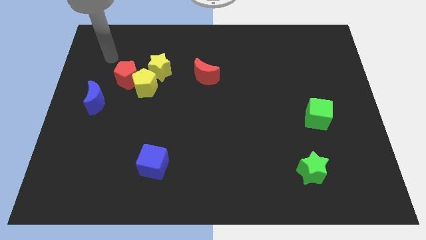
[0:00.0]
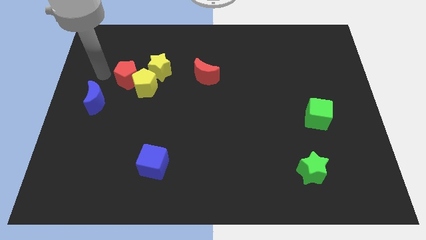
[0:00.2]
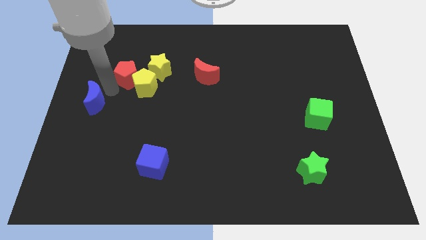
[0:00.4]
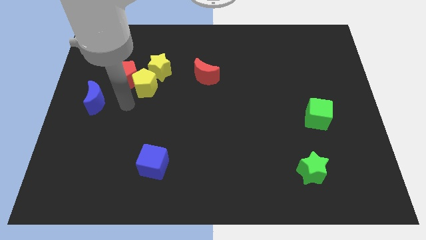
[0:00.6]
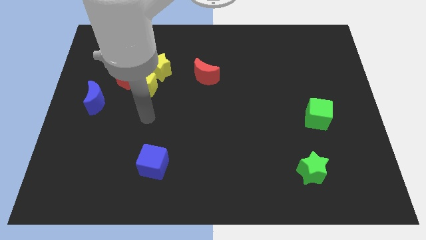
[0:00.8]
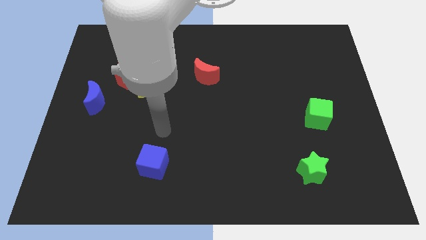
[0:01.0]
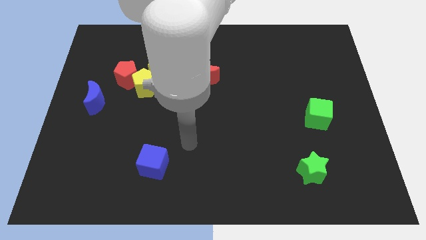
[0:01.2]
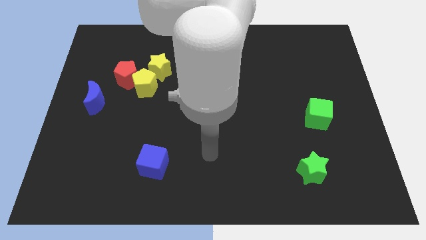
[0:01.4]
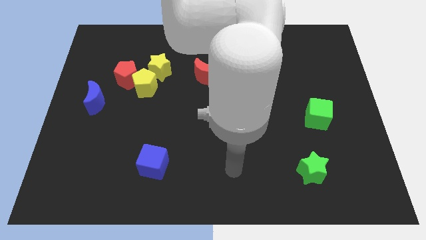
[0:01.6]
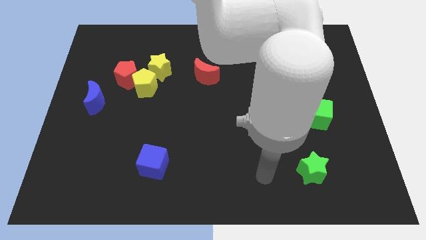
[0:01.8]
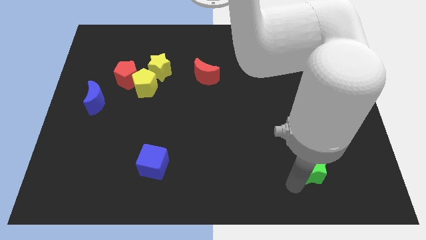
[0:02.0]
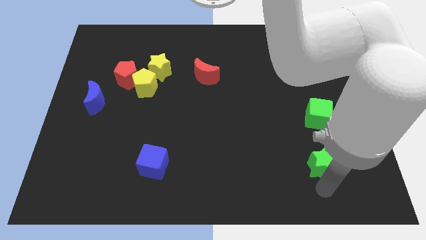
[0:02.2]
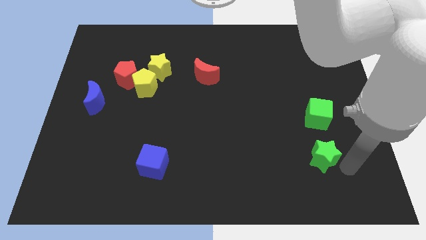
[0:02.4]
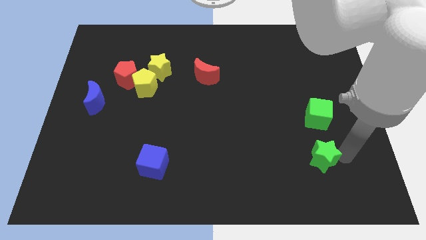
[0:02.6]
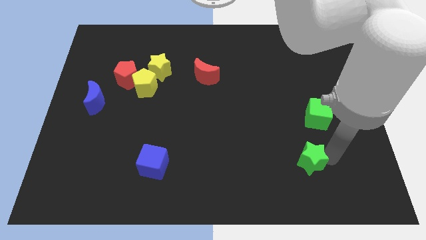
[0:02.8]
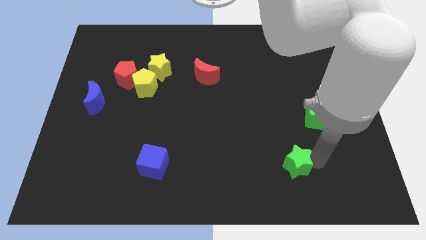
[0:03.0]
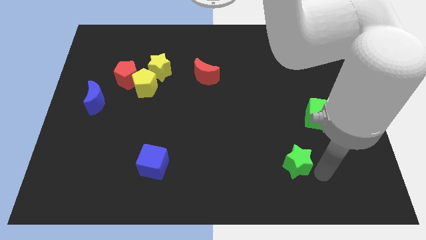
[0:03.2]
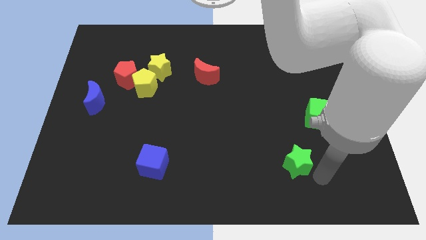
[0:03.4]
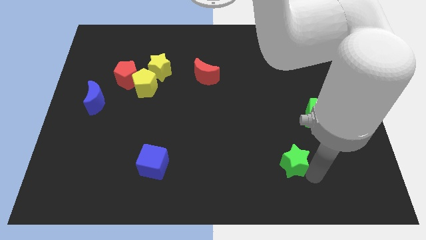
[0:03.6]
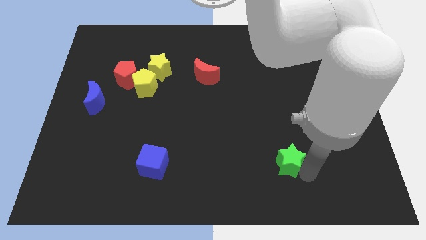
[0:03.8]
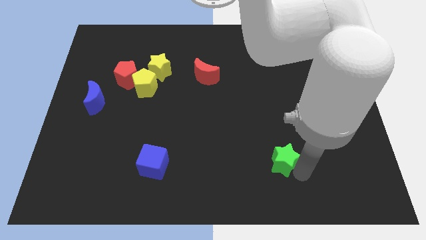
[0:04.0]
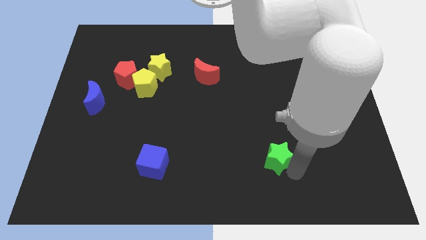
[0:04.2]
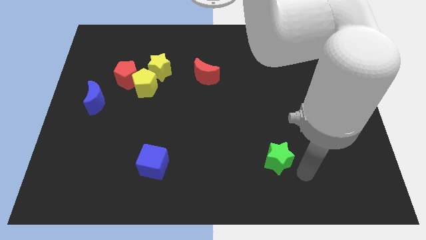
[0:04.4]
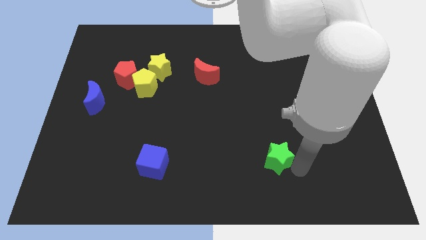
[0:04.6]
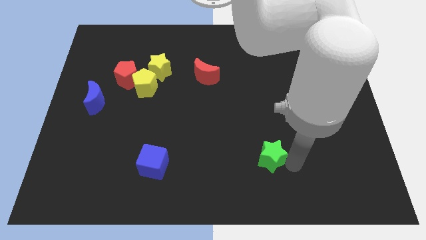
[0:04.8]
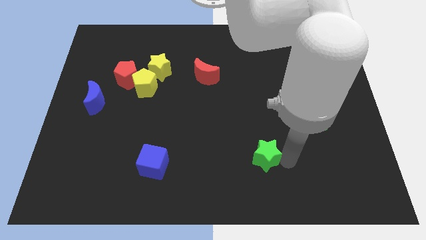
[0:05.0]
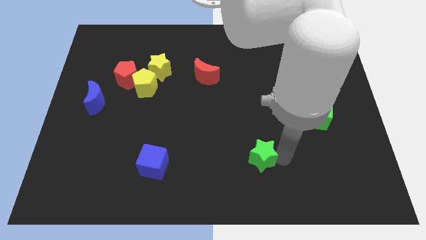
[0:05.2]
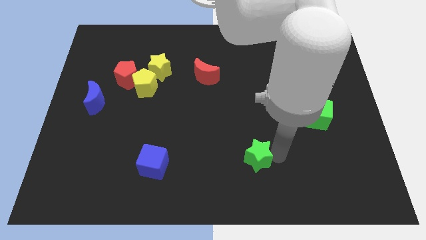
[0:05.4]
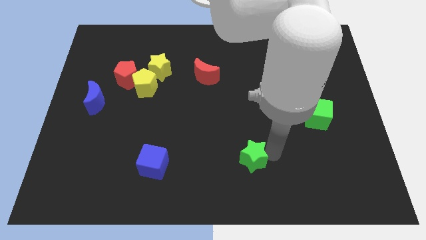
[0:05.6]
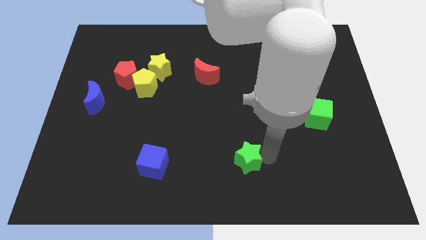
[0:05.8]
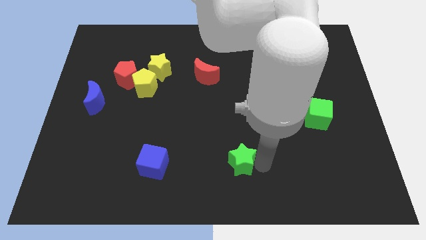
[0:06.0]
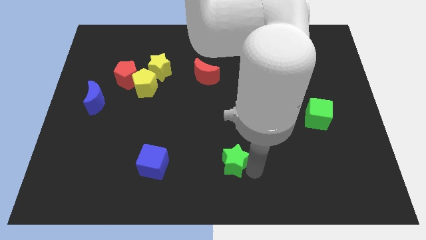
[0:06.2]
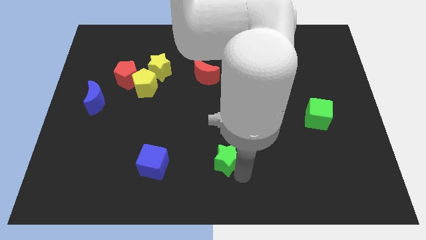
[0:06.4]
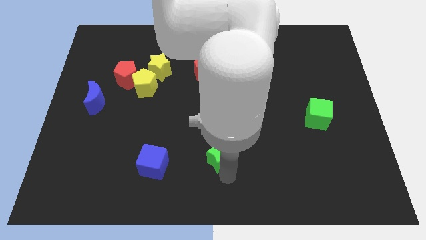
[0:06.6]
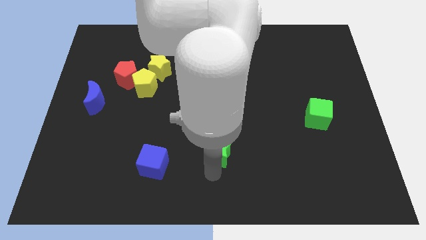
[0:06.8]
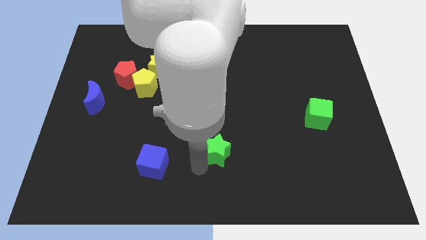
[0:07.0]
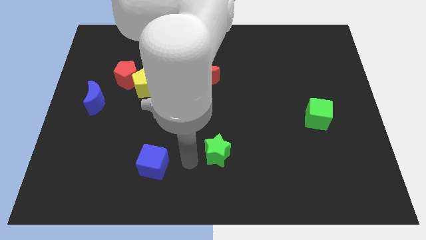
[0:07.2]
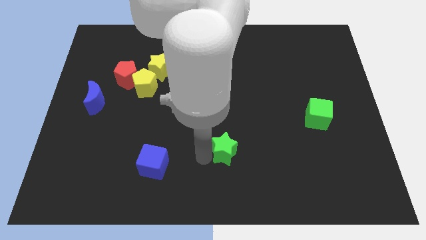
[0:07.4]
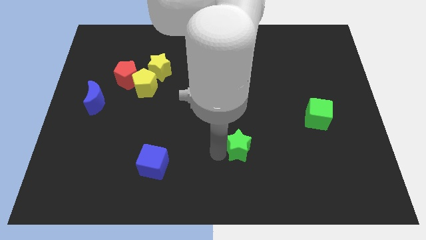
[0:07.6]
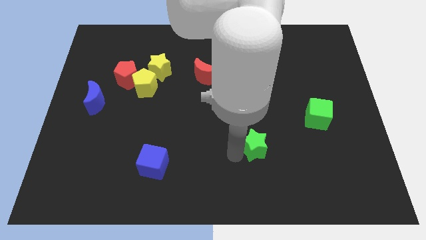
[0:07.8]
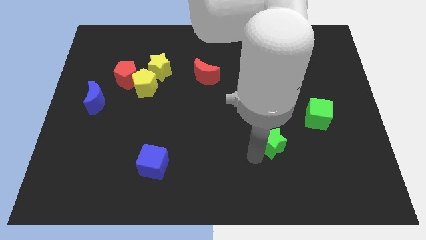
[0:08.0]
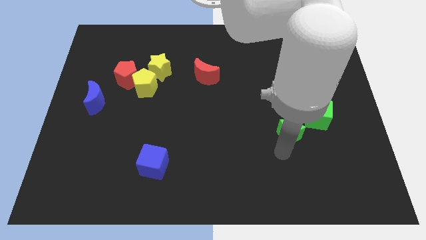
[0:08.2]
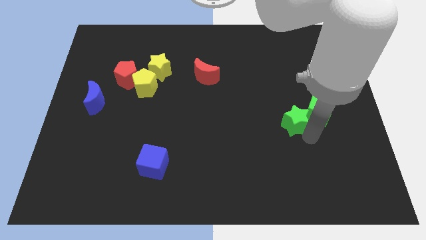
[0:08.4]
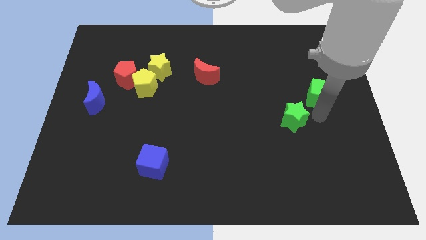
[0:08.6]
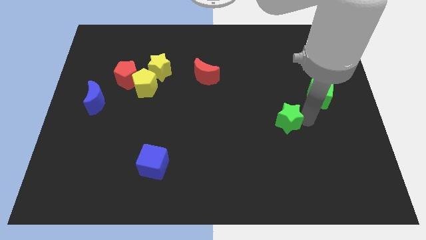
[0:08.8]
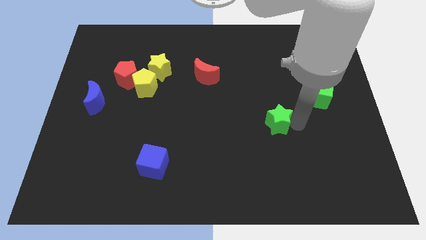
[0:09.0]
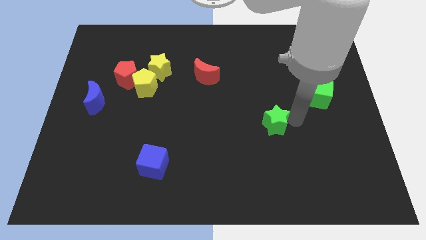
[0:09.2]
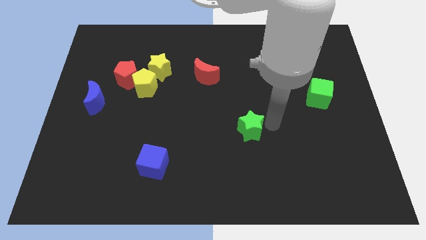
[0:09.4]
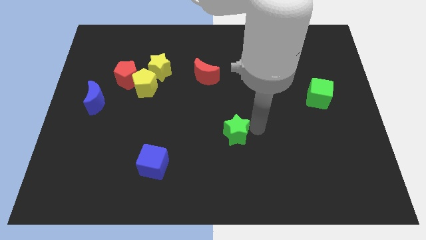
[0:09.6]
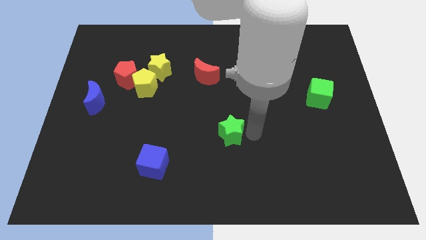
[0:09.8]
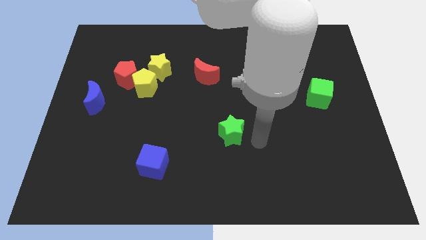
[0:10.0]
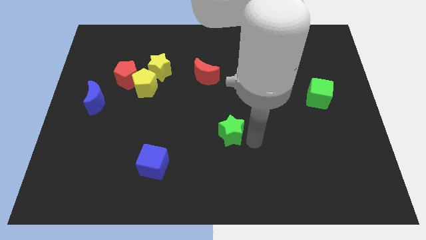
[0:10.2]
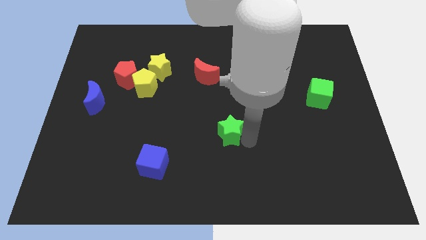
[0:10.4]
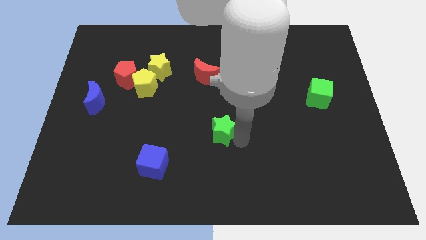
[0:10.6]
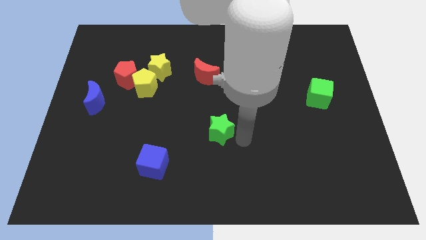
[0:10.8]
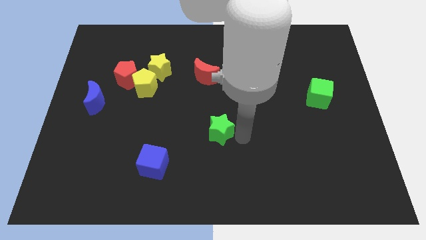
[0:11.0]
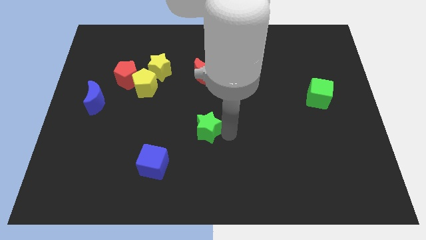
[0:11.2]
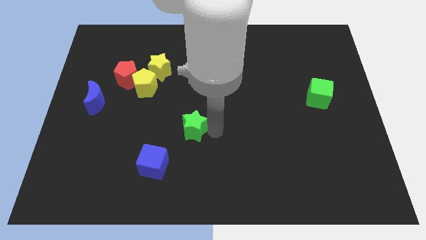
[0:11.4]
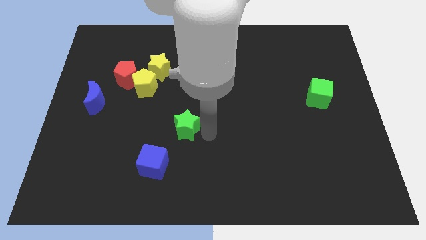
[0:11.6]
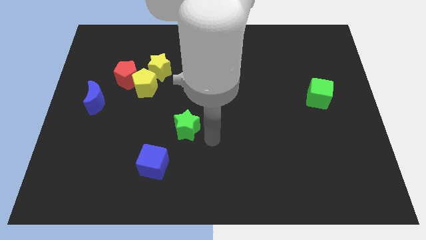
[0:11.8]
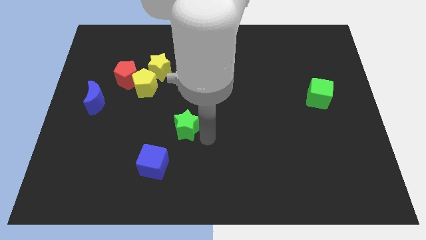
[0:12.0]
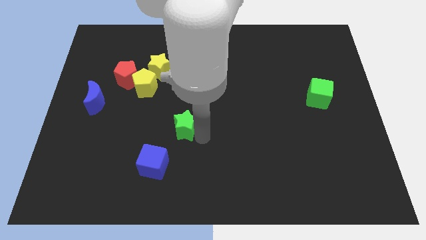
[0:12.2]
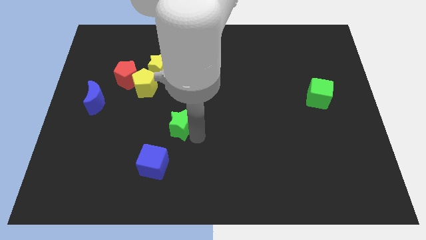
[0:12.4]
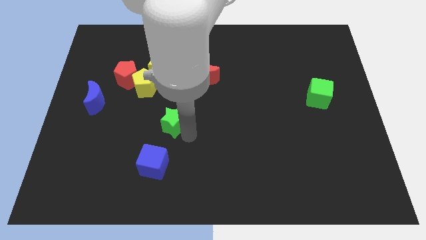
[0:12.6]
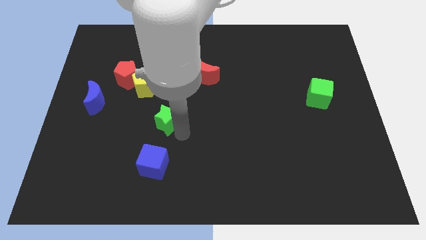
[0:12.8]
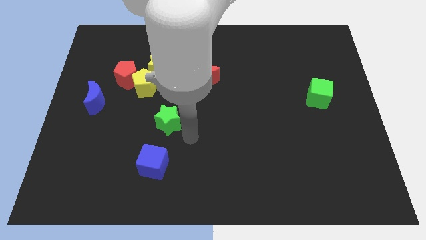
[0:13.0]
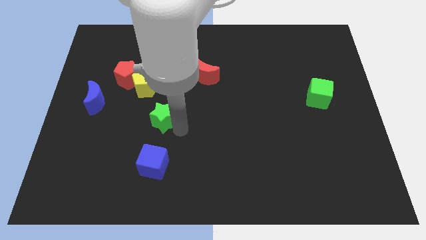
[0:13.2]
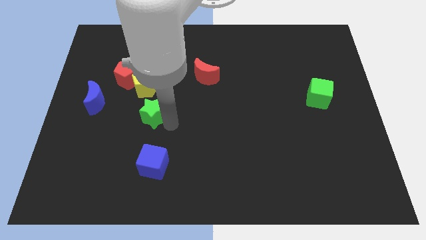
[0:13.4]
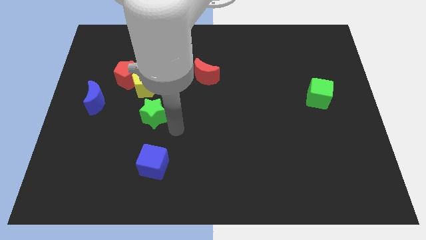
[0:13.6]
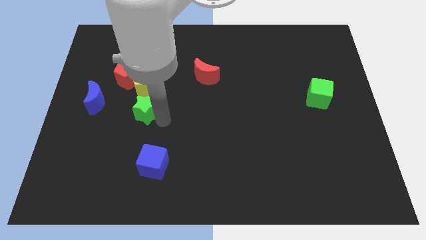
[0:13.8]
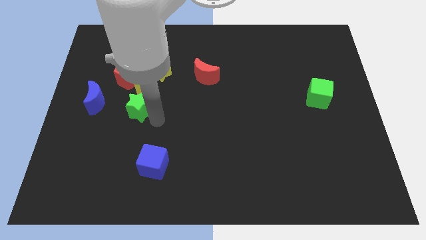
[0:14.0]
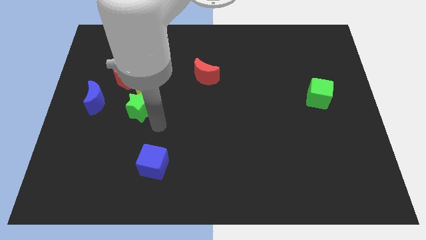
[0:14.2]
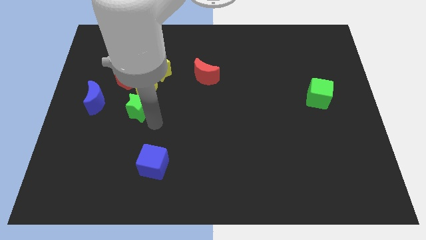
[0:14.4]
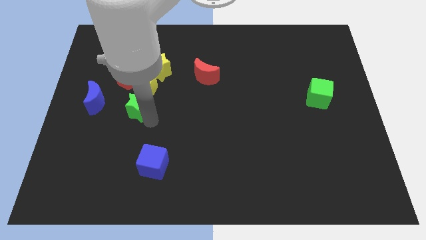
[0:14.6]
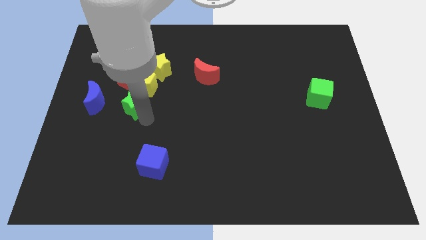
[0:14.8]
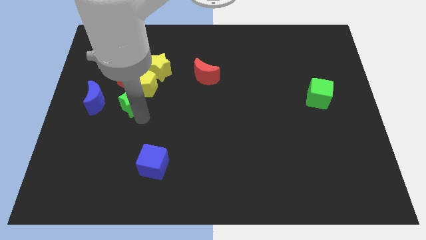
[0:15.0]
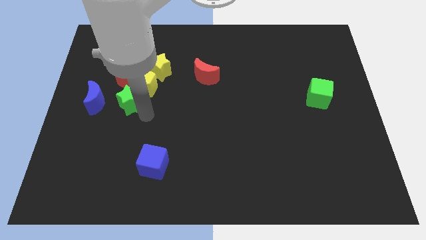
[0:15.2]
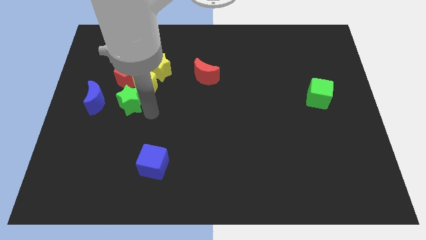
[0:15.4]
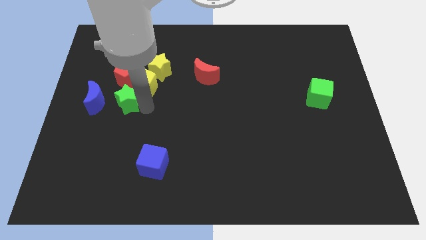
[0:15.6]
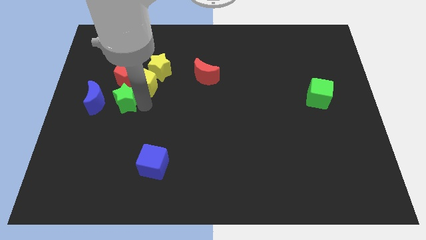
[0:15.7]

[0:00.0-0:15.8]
put the green star to the left of the yellow pentagon
